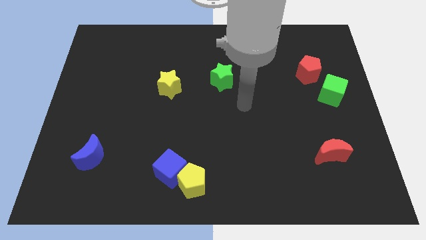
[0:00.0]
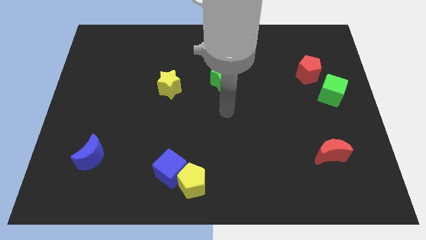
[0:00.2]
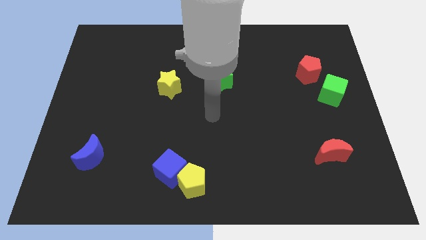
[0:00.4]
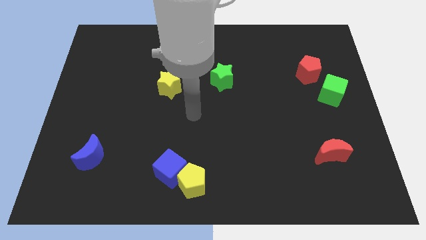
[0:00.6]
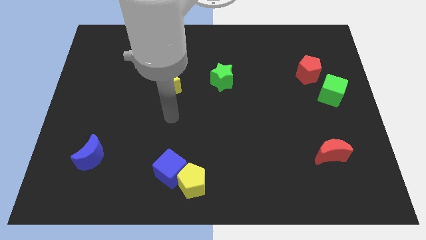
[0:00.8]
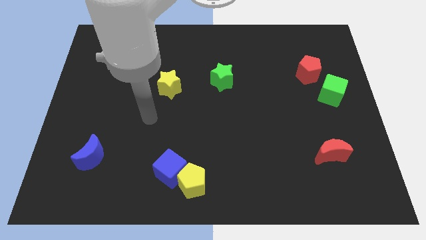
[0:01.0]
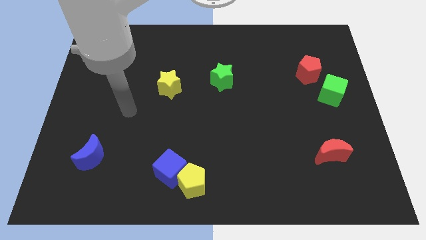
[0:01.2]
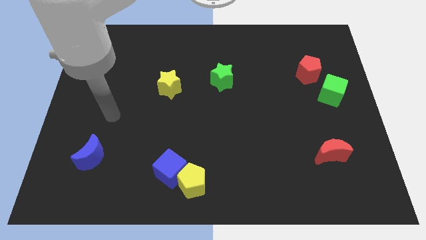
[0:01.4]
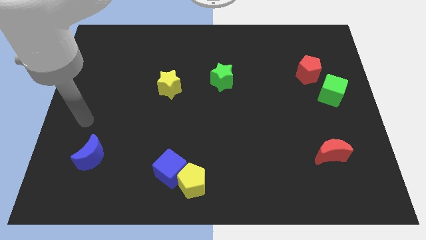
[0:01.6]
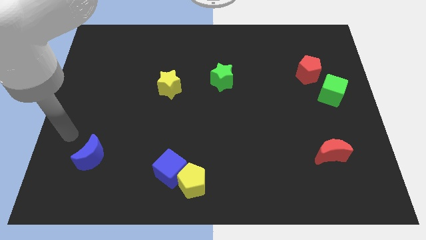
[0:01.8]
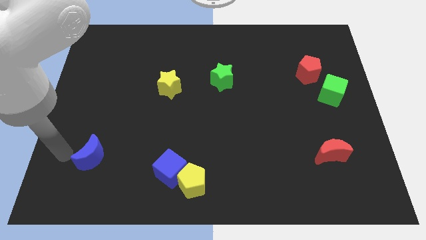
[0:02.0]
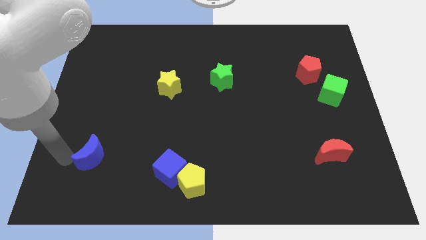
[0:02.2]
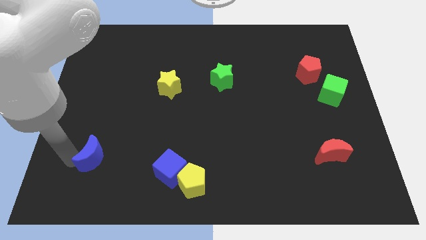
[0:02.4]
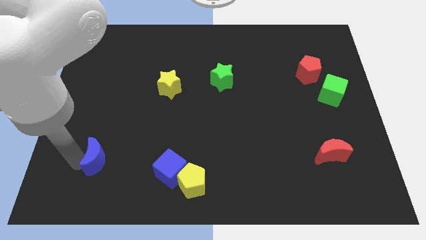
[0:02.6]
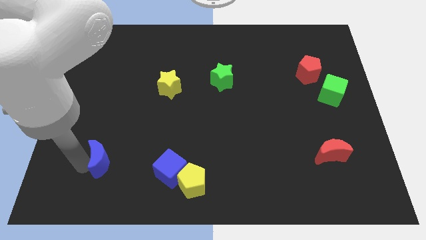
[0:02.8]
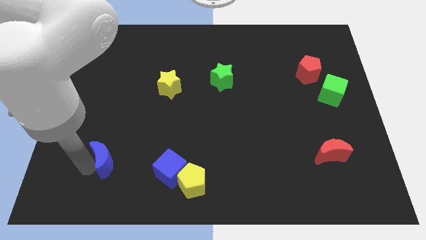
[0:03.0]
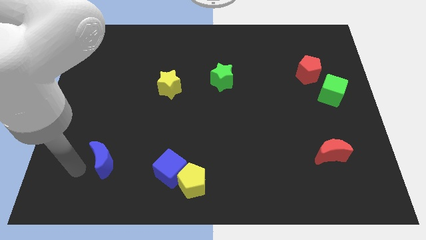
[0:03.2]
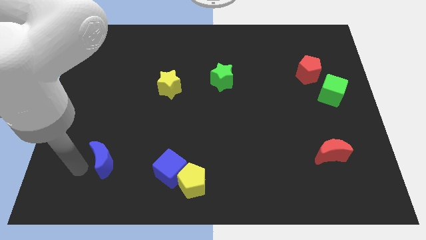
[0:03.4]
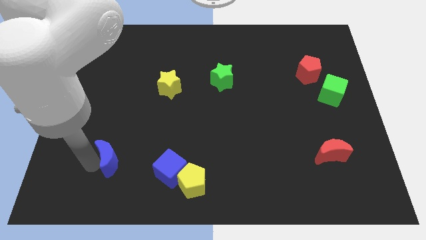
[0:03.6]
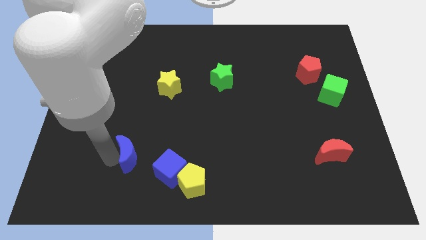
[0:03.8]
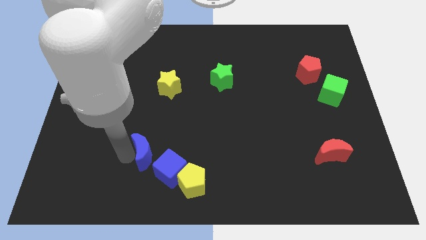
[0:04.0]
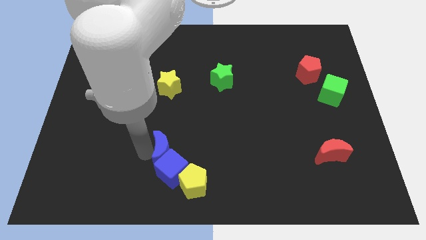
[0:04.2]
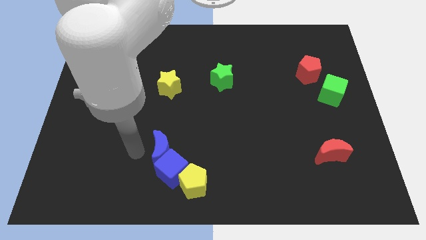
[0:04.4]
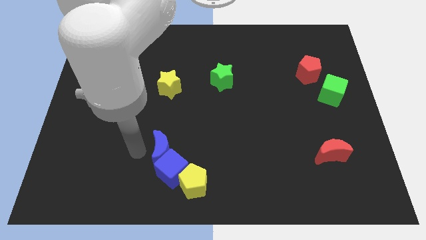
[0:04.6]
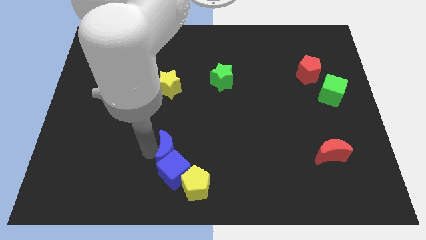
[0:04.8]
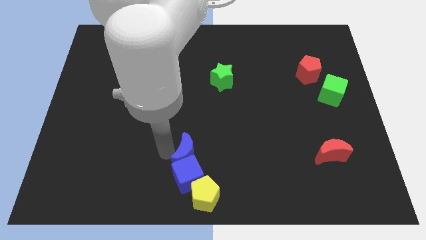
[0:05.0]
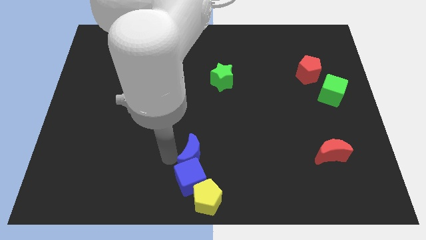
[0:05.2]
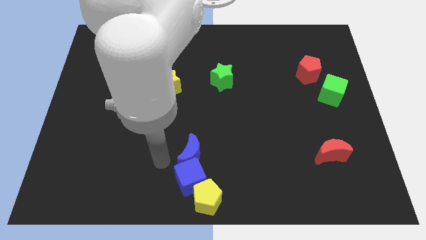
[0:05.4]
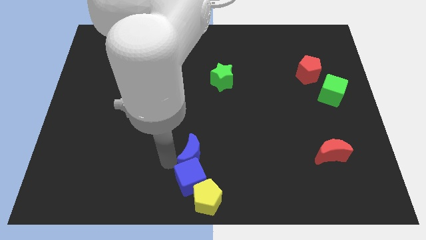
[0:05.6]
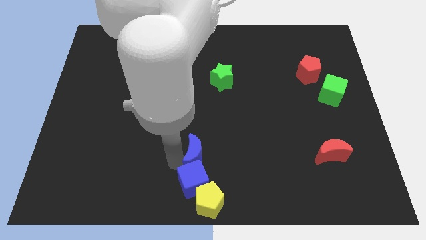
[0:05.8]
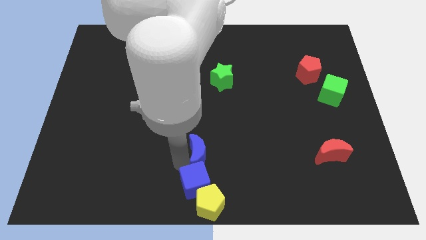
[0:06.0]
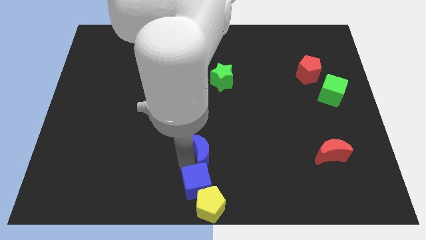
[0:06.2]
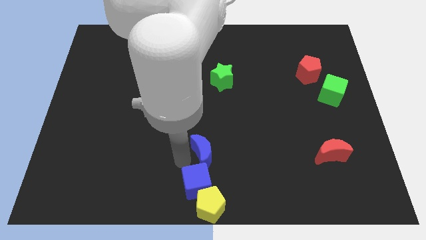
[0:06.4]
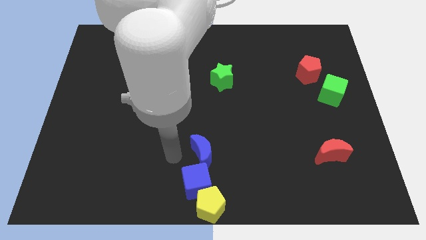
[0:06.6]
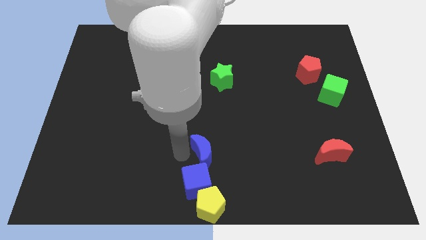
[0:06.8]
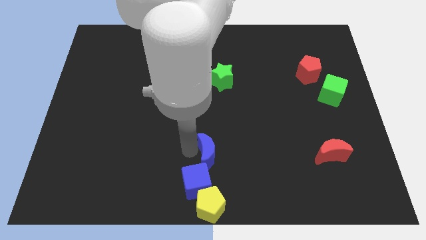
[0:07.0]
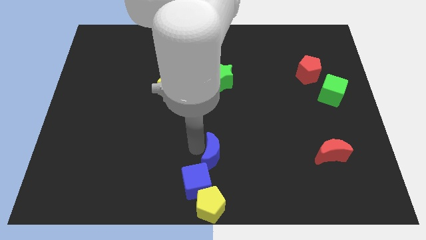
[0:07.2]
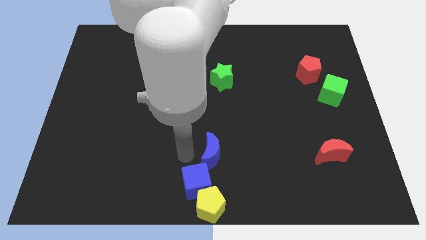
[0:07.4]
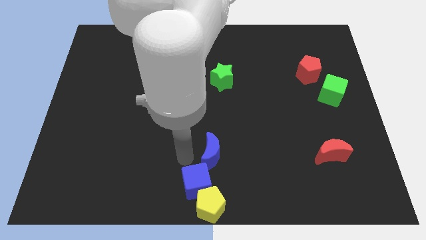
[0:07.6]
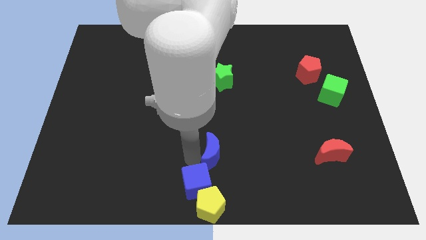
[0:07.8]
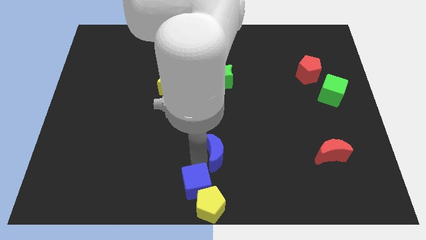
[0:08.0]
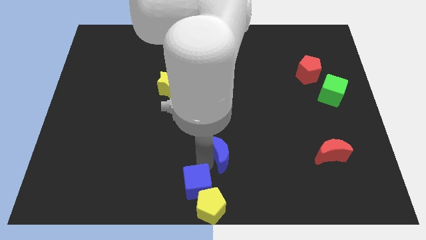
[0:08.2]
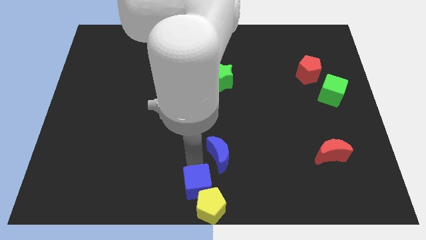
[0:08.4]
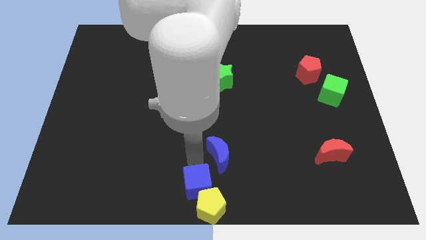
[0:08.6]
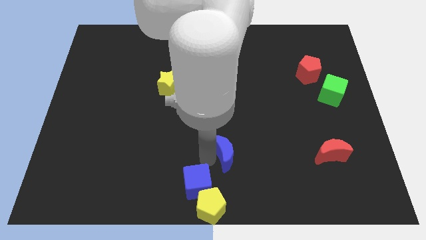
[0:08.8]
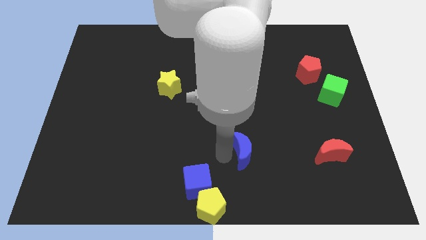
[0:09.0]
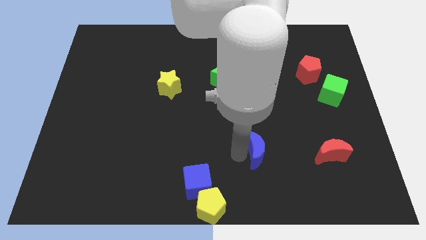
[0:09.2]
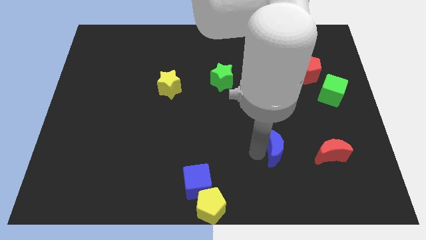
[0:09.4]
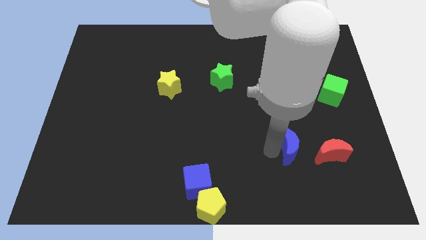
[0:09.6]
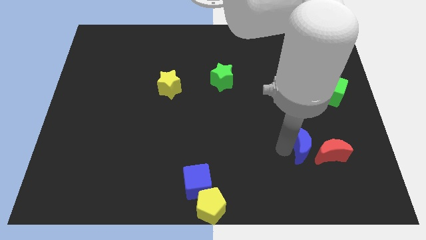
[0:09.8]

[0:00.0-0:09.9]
put the blue moon towards the red moon

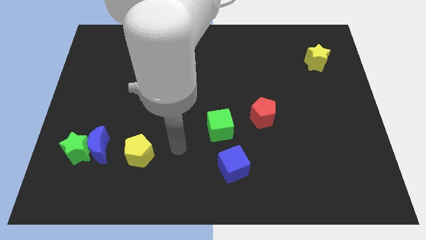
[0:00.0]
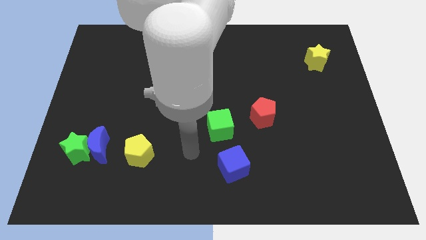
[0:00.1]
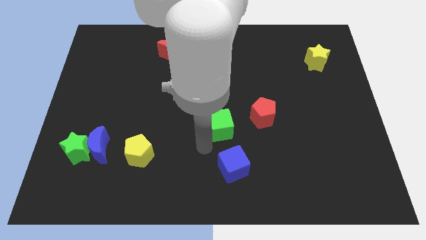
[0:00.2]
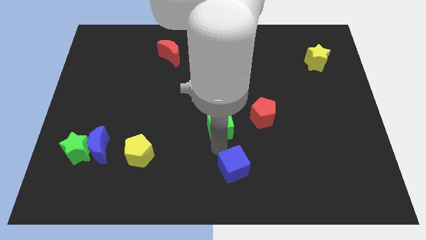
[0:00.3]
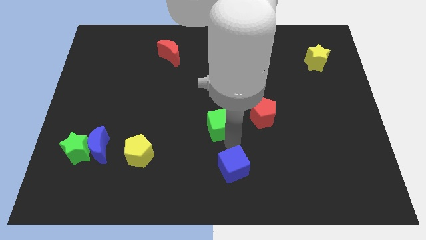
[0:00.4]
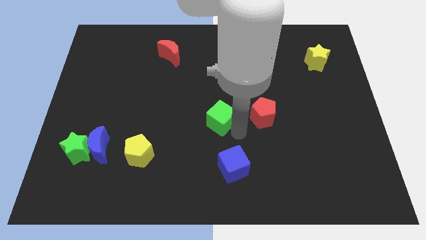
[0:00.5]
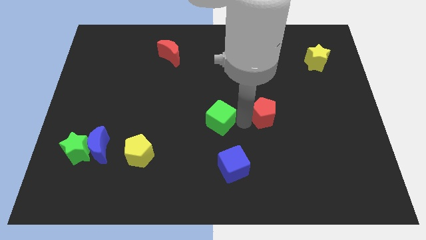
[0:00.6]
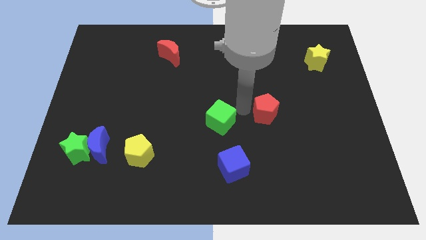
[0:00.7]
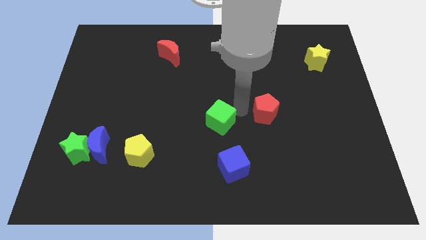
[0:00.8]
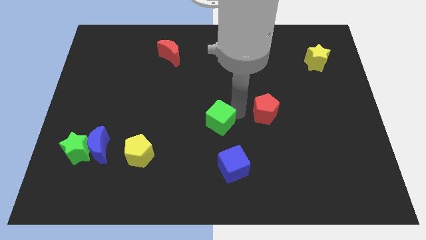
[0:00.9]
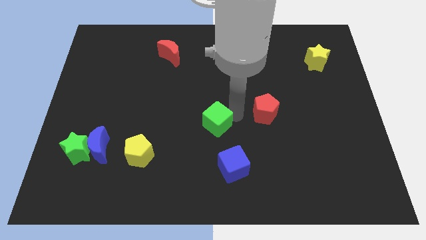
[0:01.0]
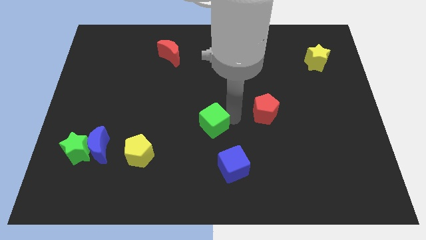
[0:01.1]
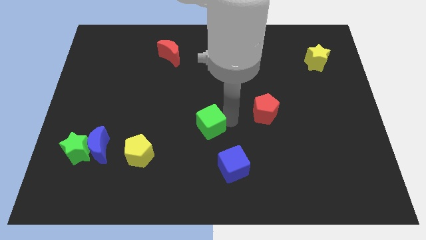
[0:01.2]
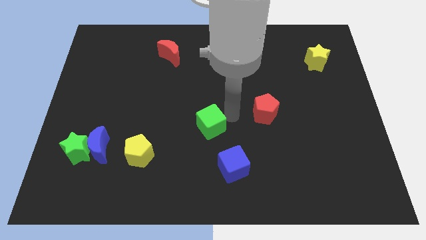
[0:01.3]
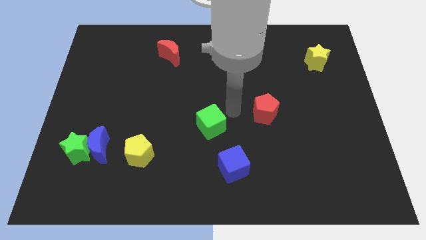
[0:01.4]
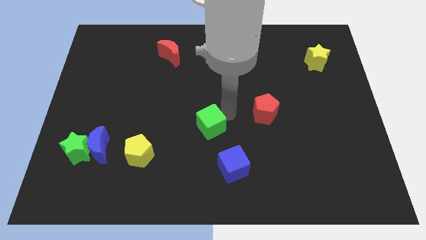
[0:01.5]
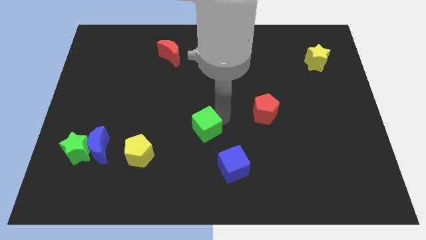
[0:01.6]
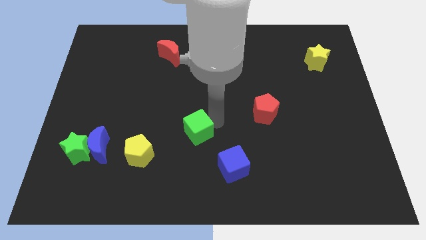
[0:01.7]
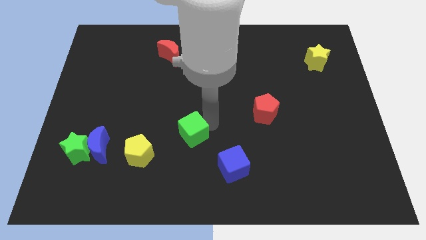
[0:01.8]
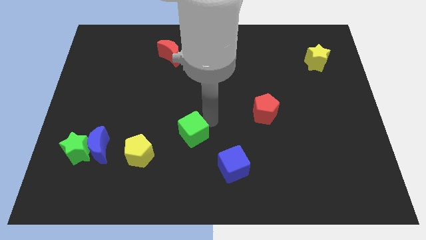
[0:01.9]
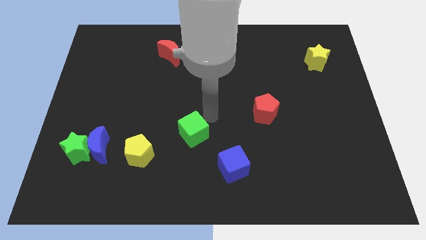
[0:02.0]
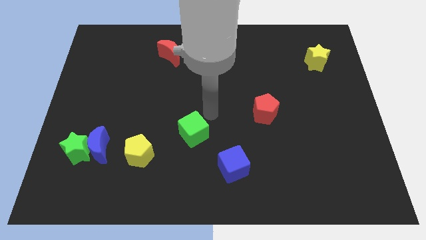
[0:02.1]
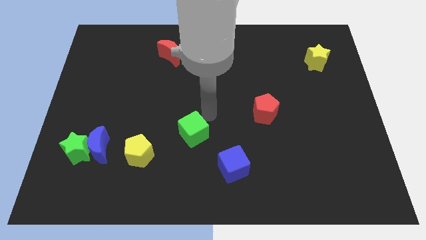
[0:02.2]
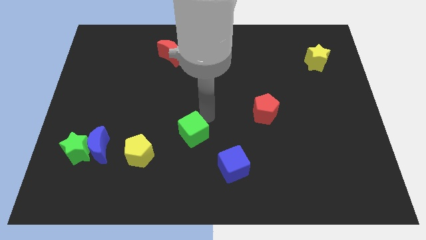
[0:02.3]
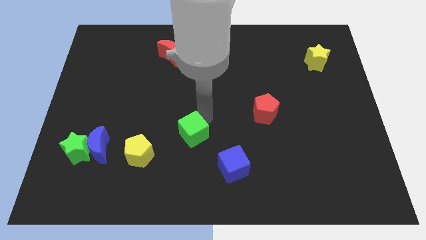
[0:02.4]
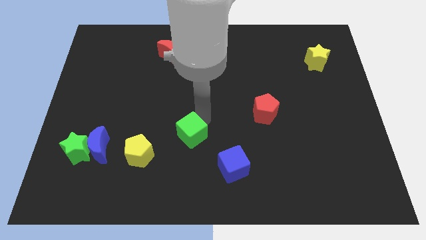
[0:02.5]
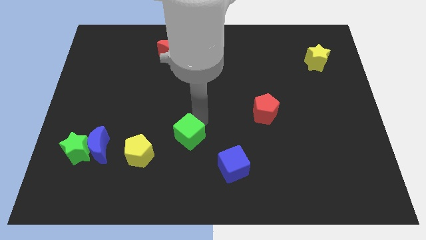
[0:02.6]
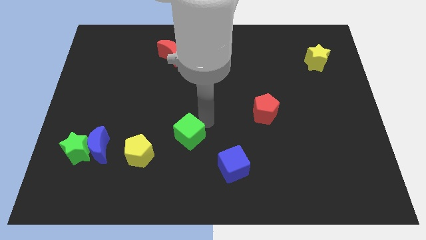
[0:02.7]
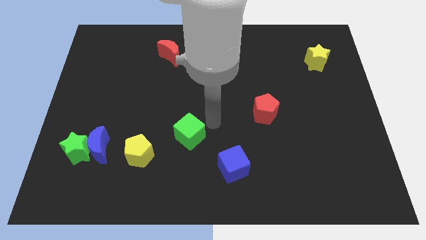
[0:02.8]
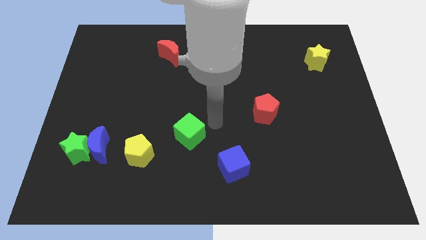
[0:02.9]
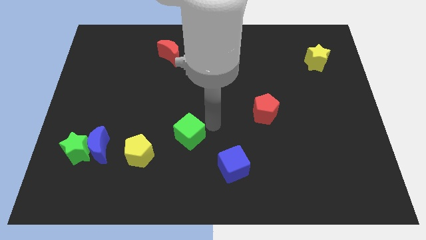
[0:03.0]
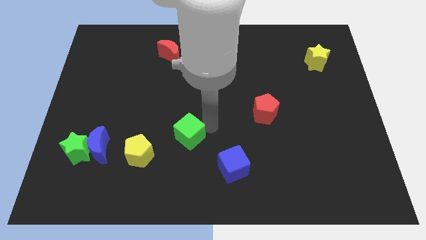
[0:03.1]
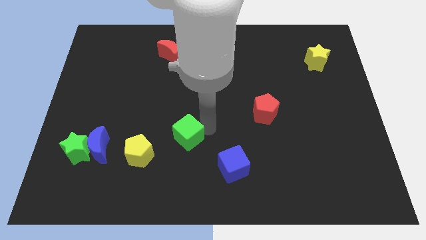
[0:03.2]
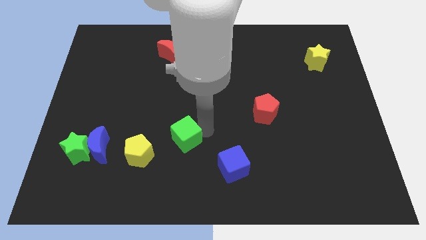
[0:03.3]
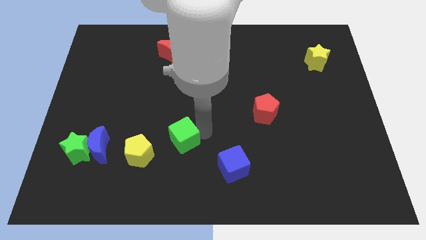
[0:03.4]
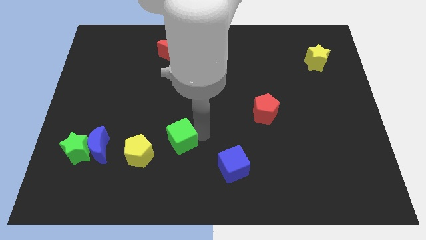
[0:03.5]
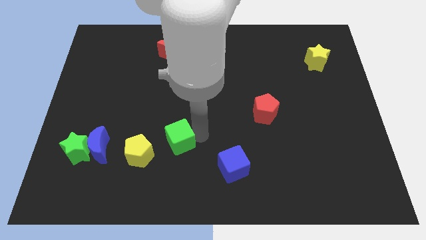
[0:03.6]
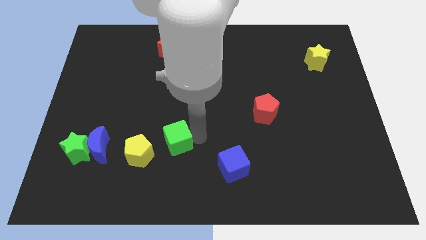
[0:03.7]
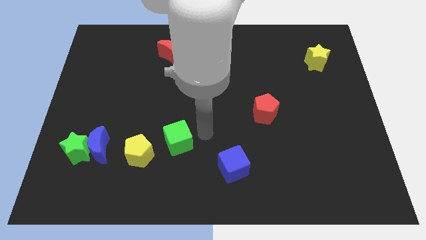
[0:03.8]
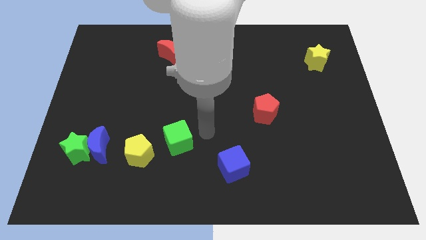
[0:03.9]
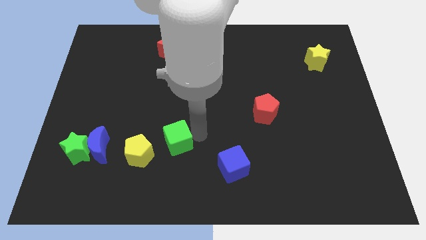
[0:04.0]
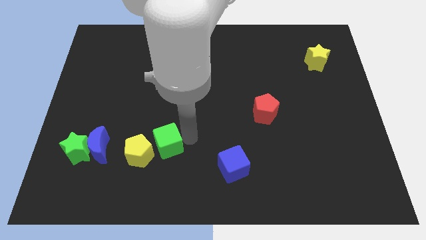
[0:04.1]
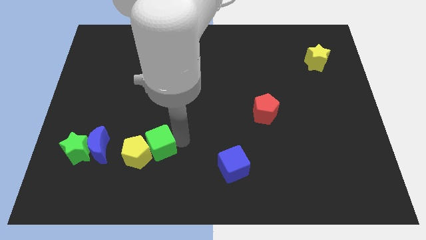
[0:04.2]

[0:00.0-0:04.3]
push the green cube to the yellow pentagon
